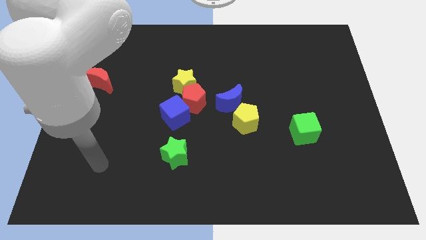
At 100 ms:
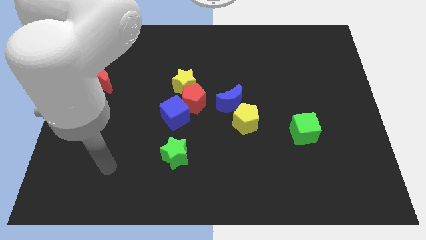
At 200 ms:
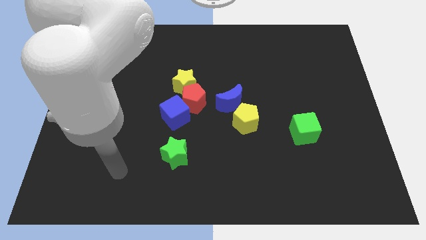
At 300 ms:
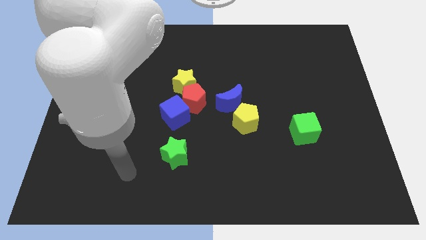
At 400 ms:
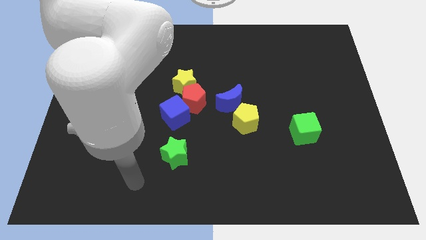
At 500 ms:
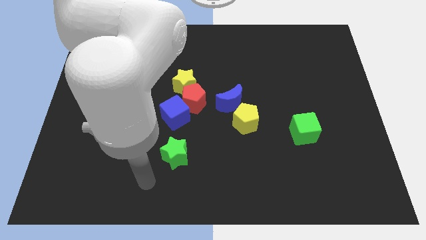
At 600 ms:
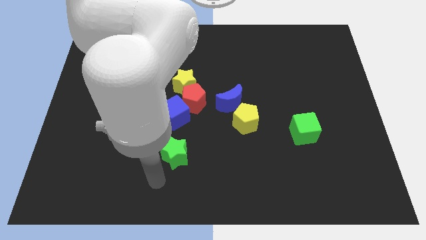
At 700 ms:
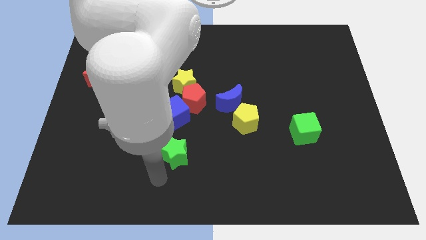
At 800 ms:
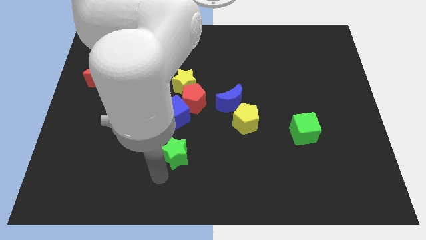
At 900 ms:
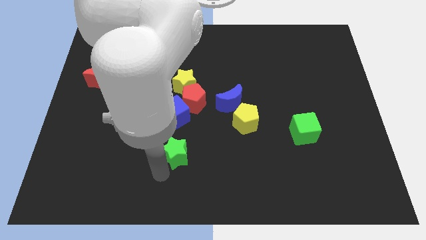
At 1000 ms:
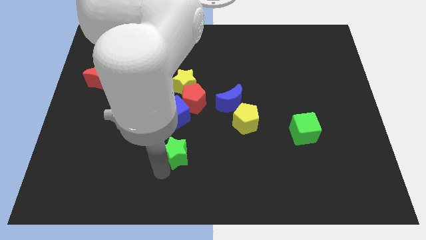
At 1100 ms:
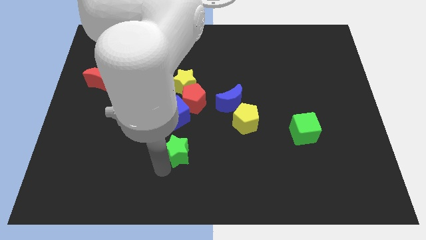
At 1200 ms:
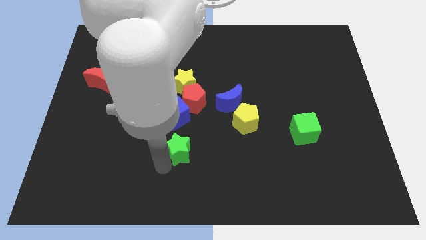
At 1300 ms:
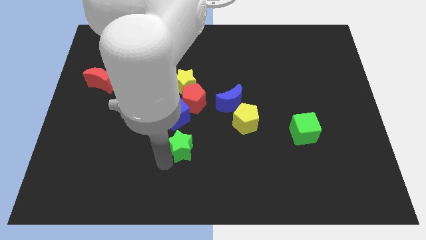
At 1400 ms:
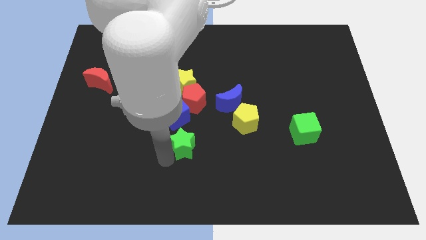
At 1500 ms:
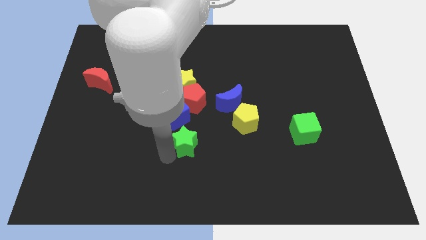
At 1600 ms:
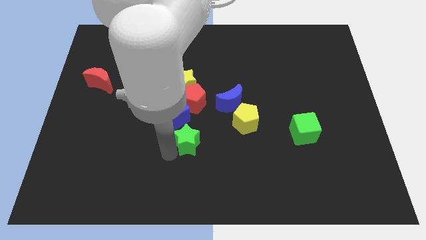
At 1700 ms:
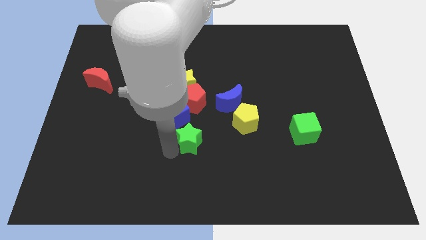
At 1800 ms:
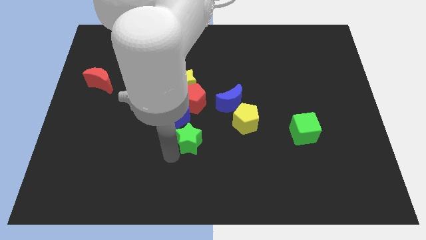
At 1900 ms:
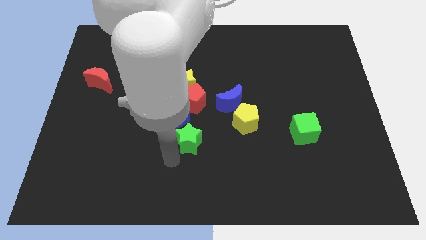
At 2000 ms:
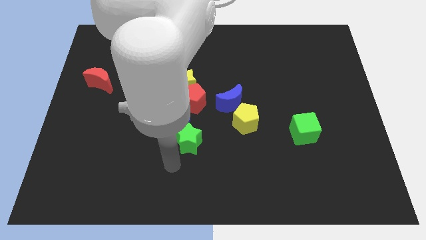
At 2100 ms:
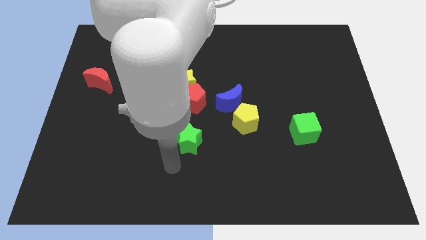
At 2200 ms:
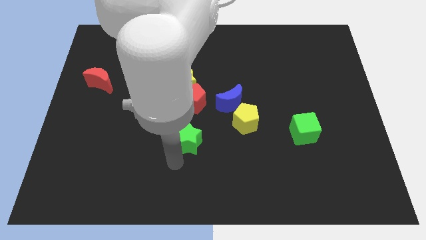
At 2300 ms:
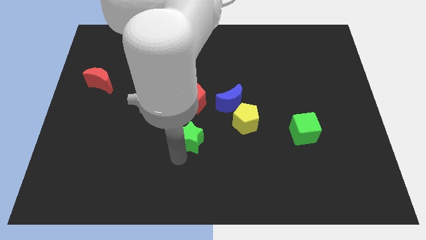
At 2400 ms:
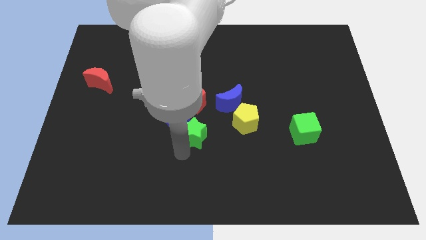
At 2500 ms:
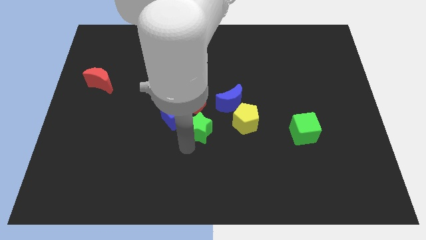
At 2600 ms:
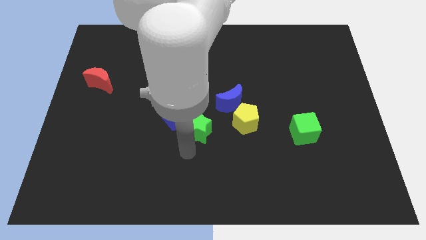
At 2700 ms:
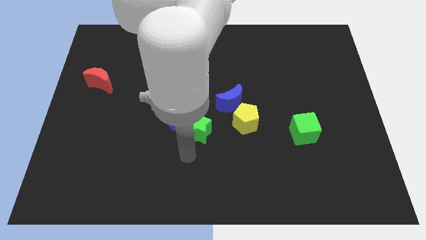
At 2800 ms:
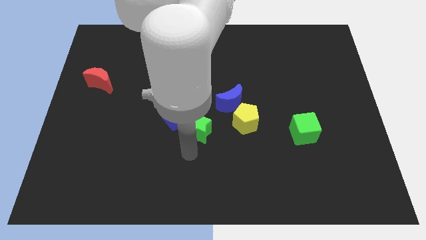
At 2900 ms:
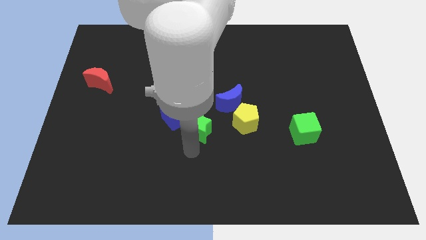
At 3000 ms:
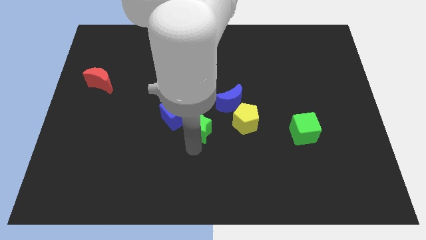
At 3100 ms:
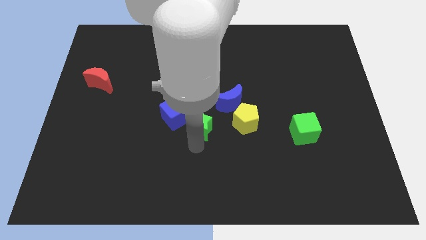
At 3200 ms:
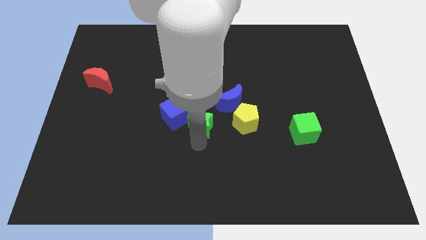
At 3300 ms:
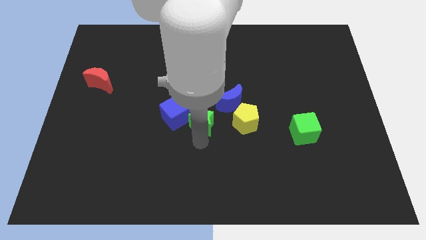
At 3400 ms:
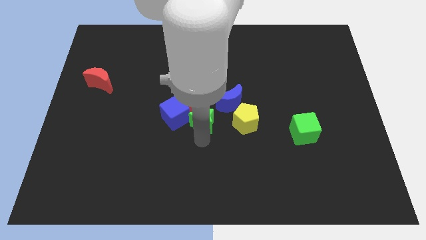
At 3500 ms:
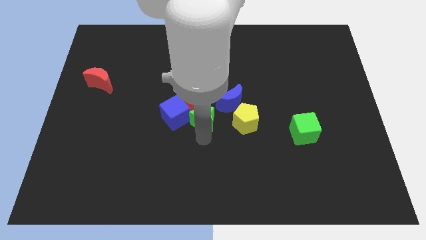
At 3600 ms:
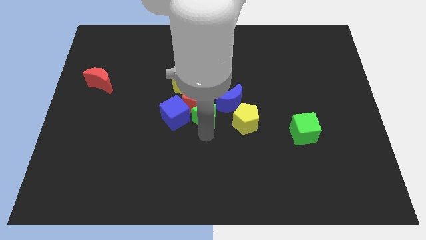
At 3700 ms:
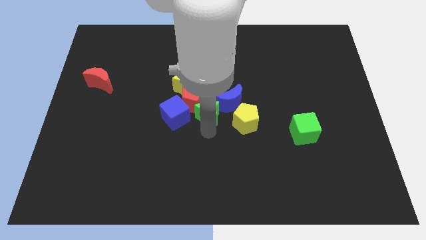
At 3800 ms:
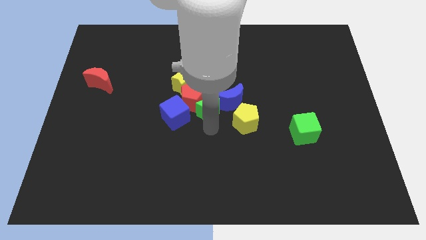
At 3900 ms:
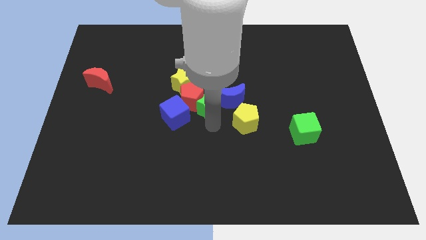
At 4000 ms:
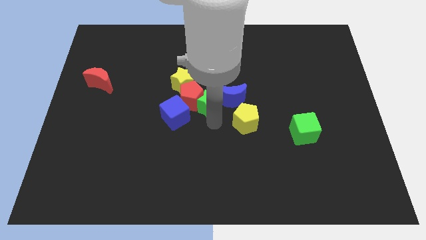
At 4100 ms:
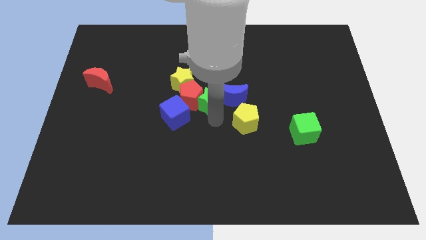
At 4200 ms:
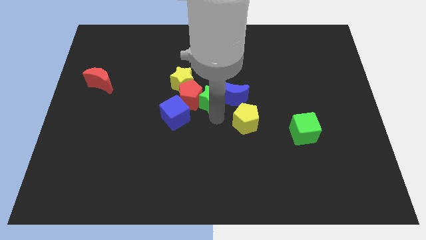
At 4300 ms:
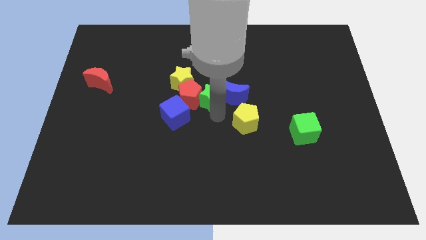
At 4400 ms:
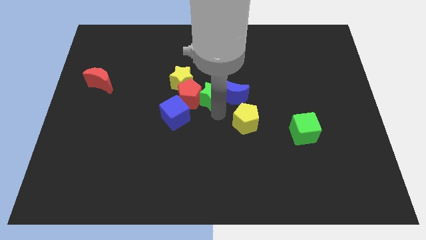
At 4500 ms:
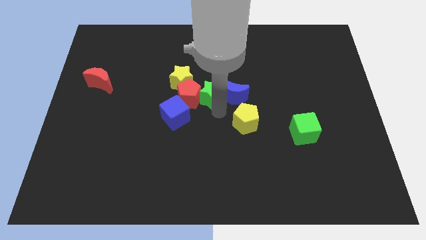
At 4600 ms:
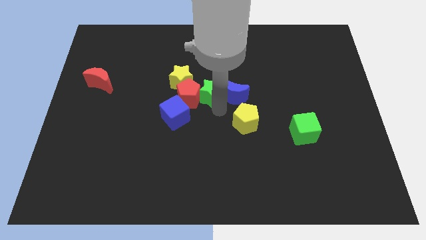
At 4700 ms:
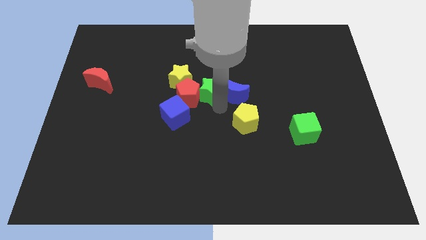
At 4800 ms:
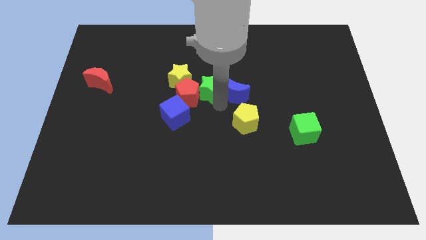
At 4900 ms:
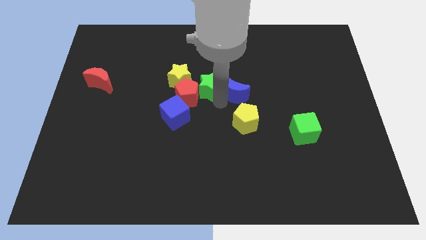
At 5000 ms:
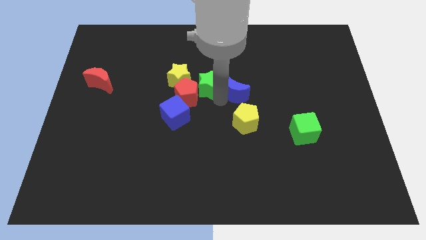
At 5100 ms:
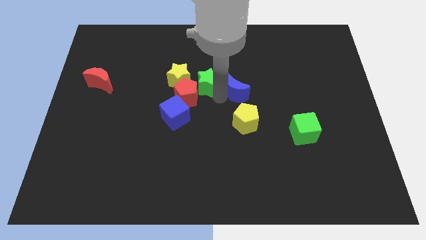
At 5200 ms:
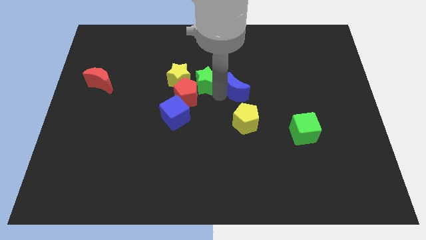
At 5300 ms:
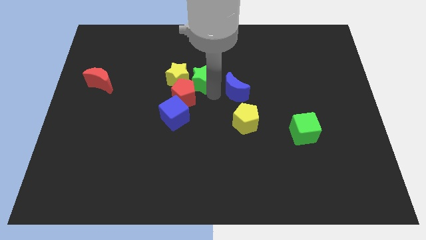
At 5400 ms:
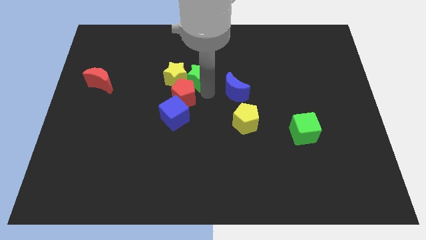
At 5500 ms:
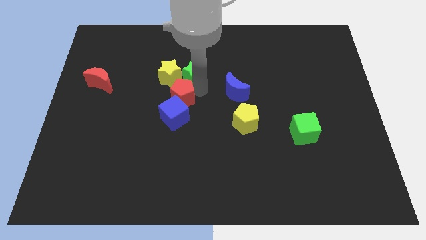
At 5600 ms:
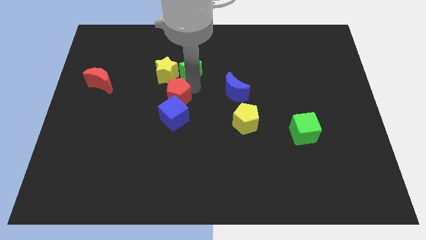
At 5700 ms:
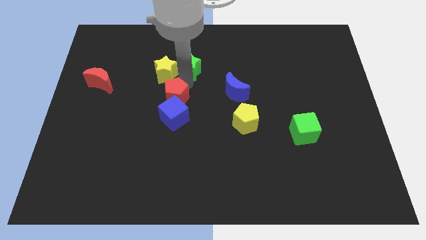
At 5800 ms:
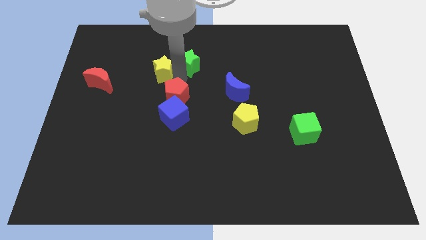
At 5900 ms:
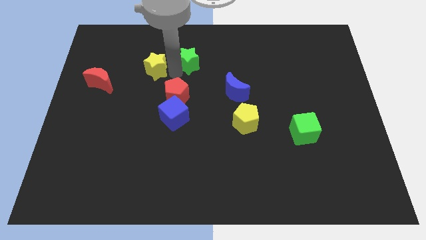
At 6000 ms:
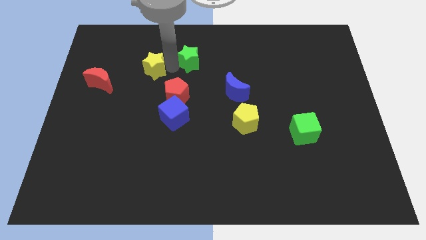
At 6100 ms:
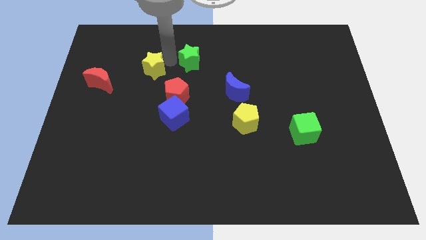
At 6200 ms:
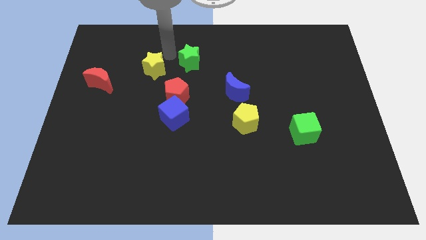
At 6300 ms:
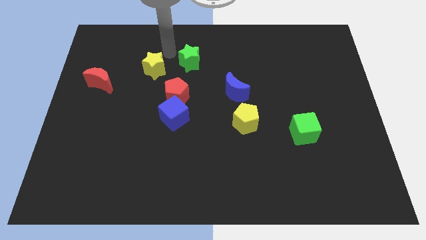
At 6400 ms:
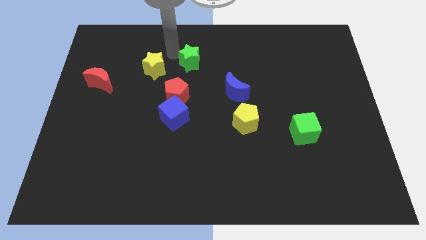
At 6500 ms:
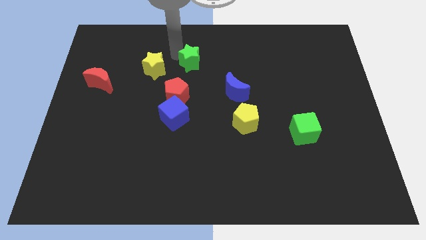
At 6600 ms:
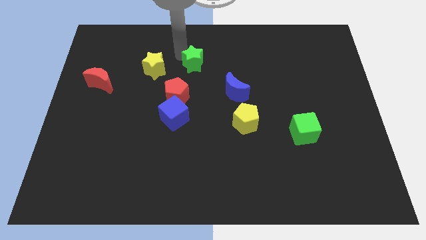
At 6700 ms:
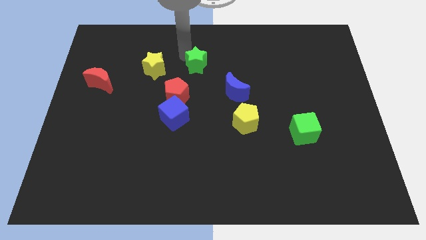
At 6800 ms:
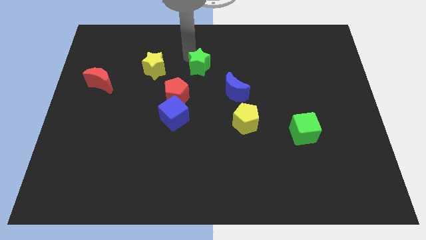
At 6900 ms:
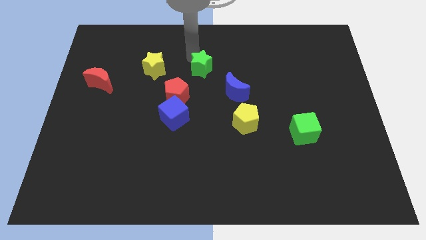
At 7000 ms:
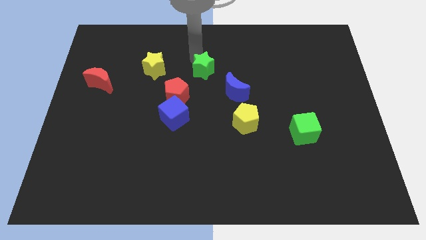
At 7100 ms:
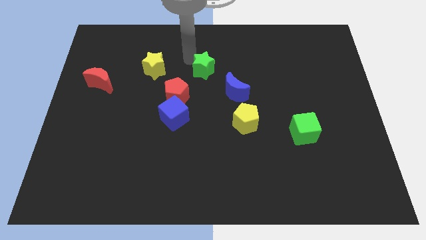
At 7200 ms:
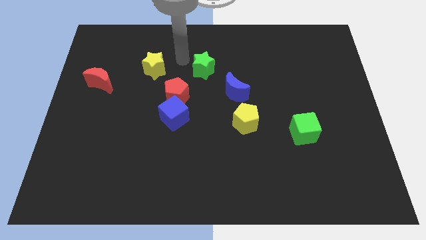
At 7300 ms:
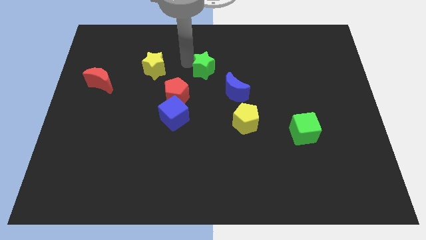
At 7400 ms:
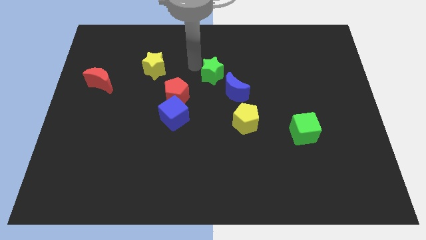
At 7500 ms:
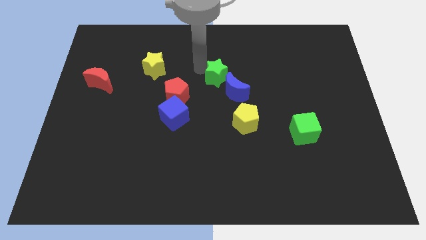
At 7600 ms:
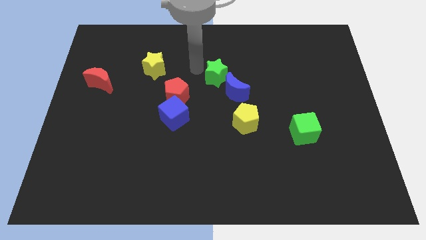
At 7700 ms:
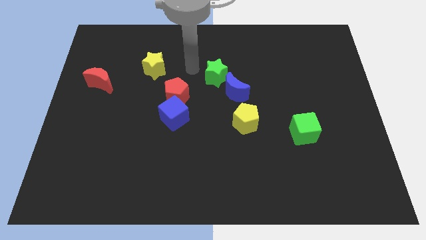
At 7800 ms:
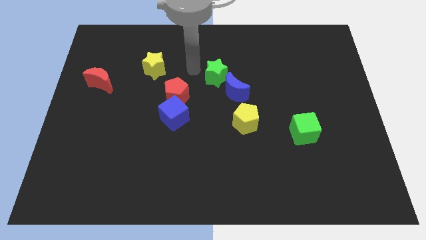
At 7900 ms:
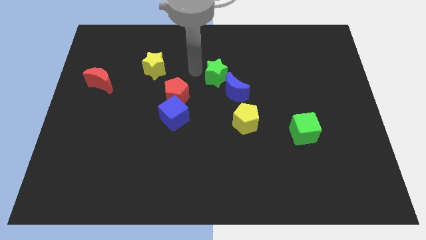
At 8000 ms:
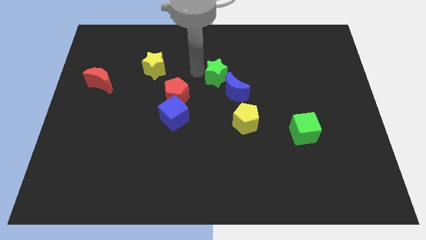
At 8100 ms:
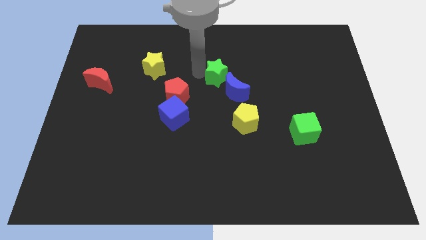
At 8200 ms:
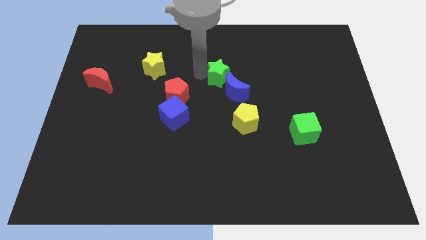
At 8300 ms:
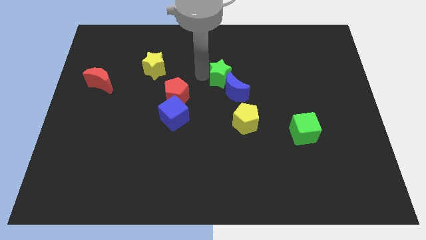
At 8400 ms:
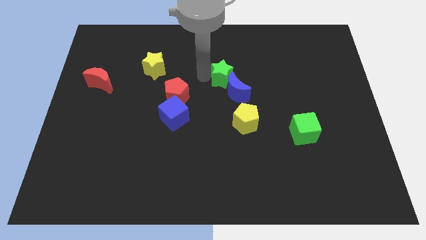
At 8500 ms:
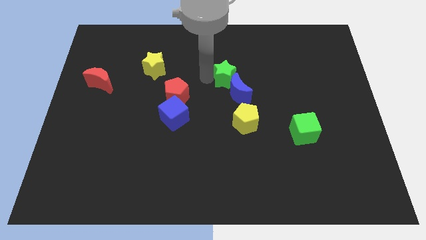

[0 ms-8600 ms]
push the green star upwards and to the right diagonally
